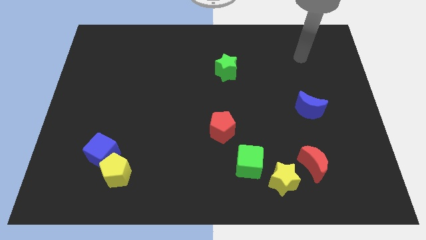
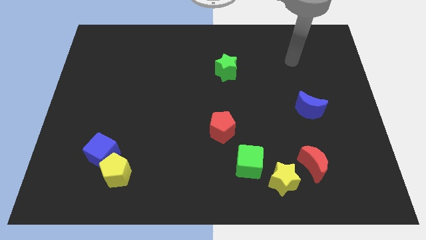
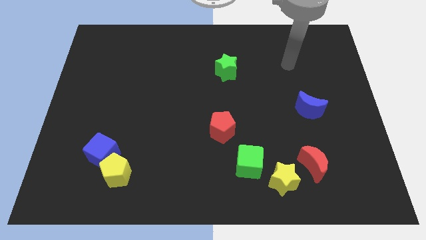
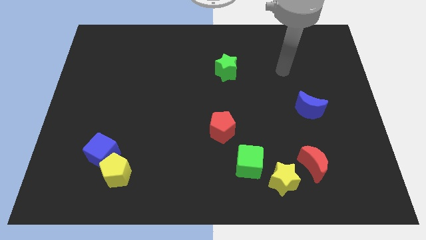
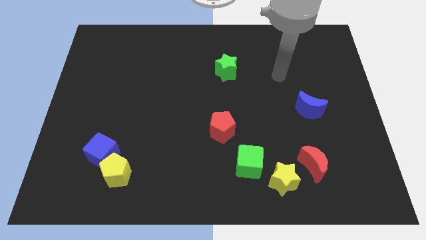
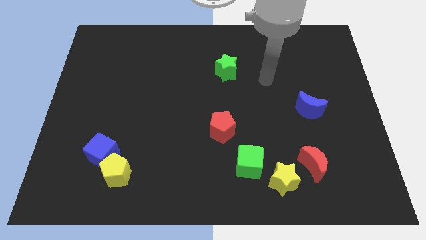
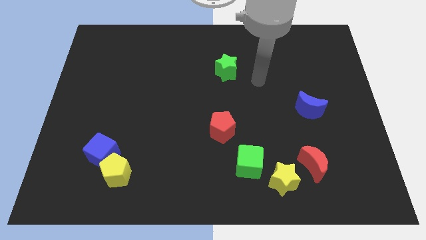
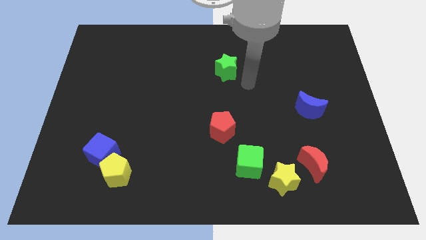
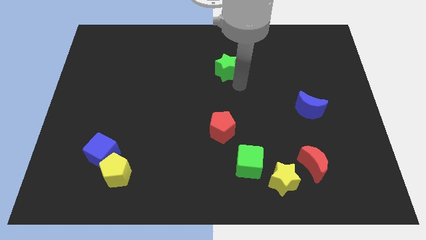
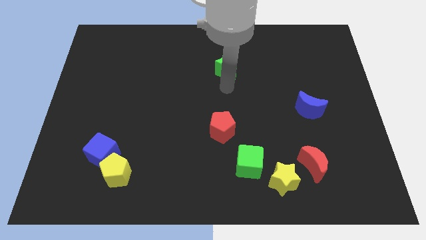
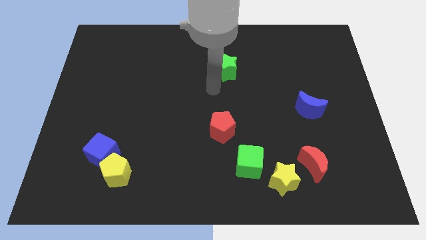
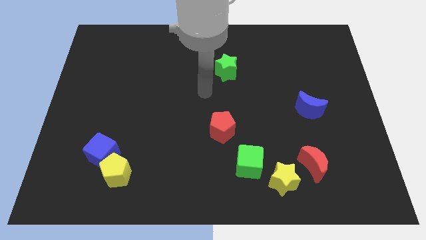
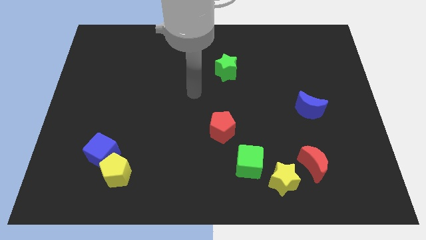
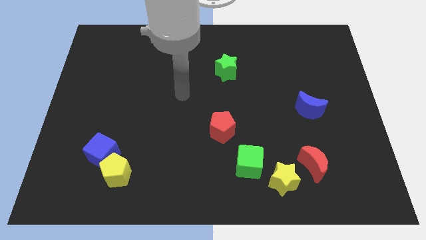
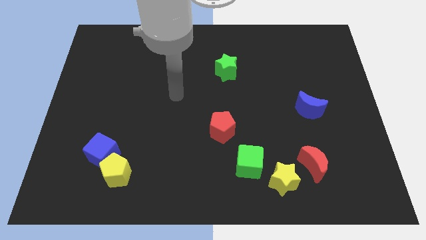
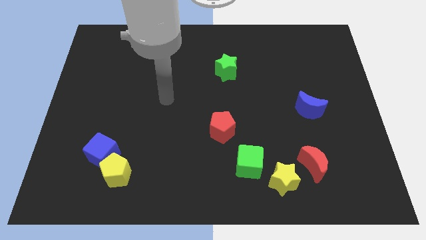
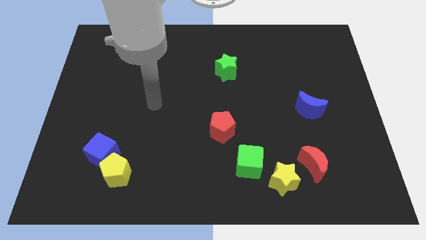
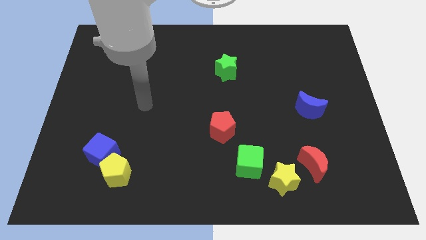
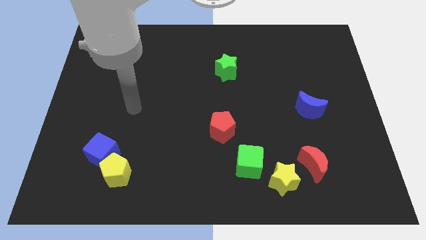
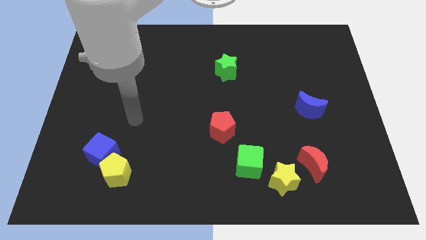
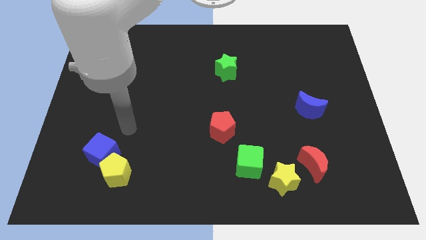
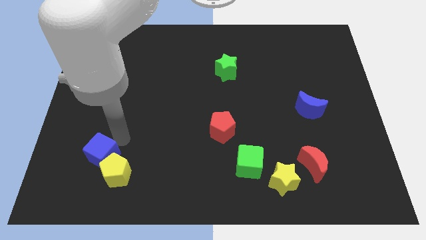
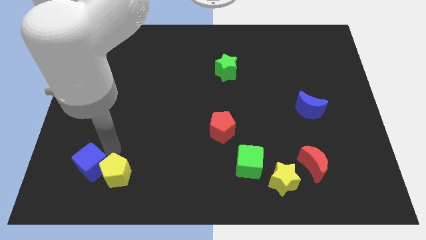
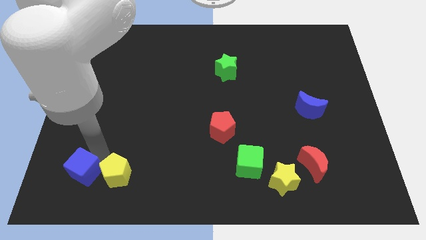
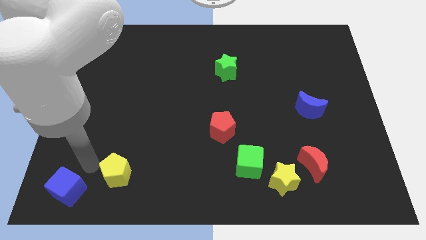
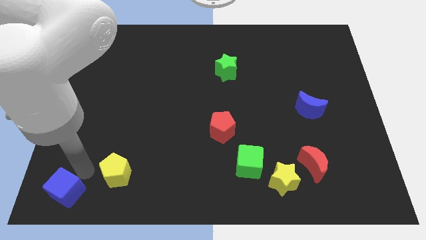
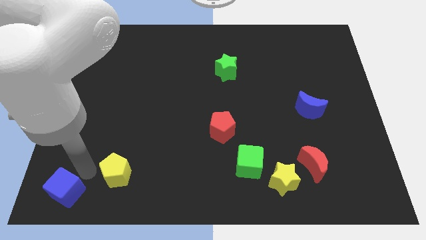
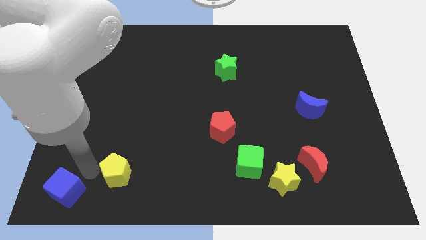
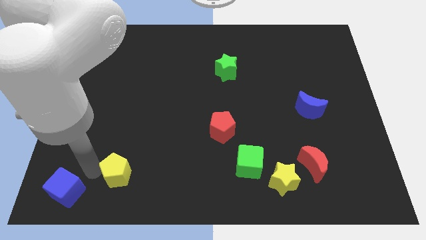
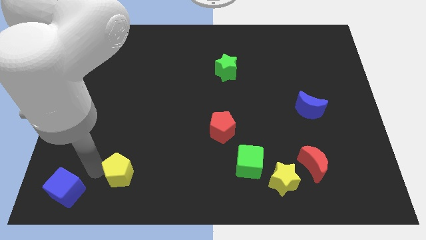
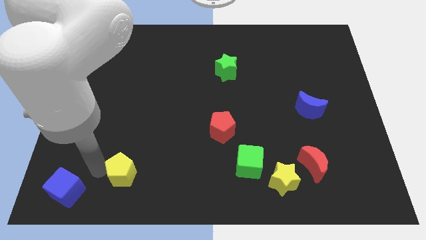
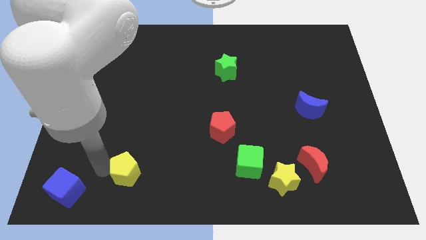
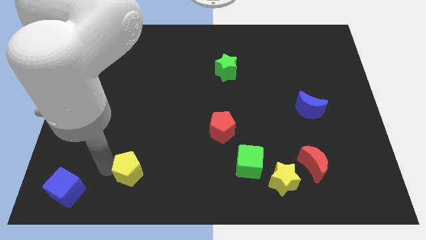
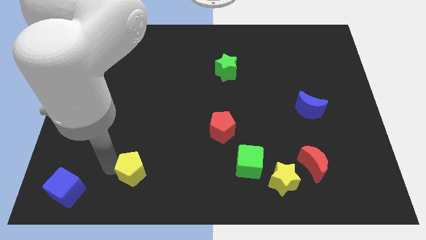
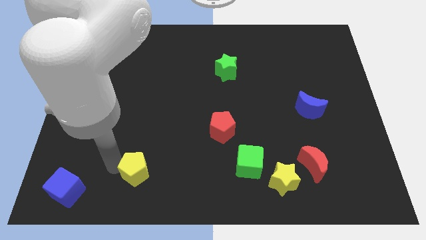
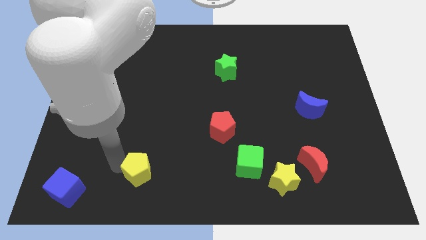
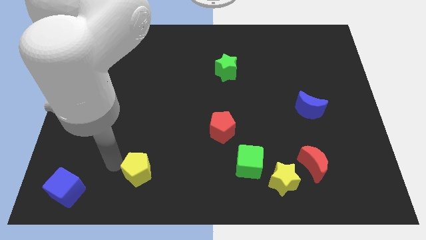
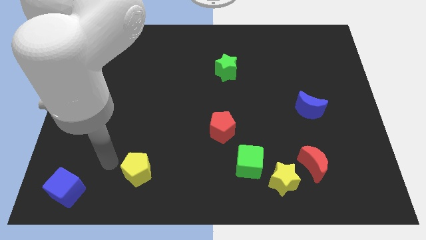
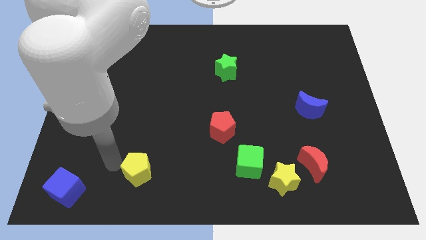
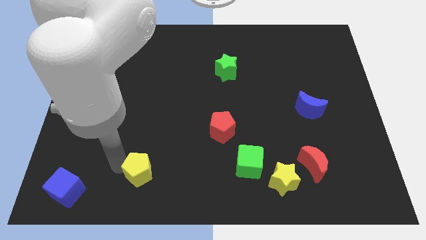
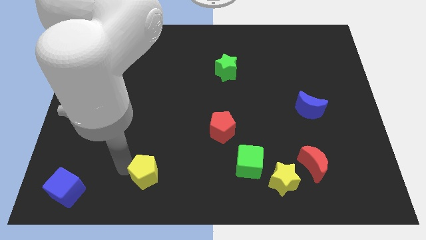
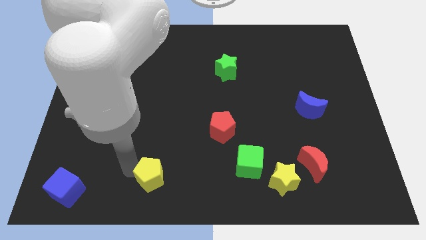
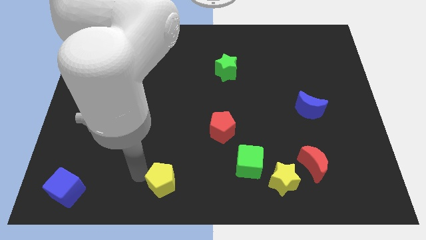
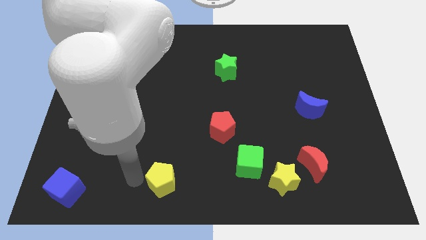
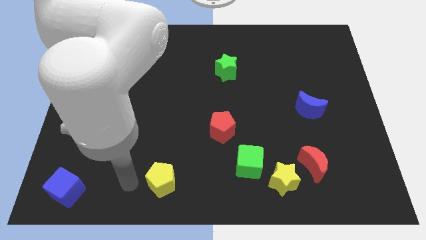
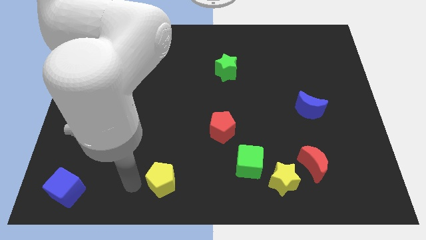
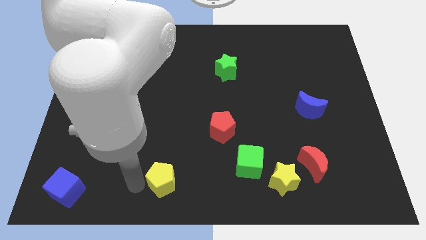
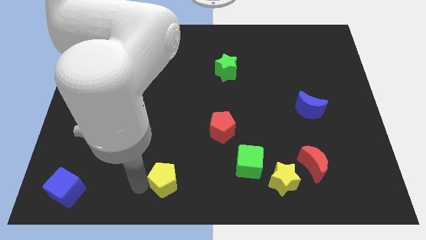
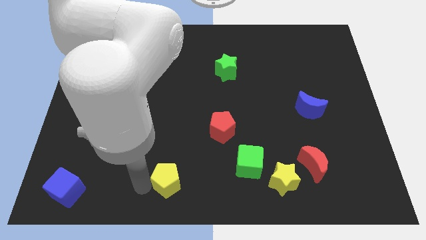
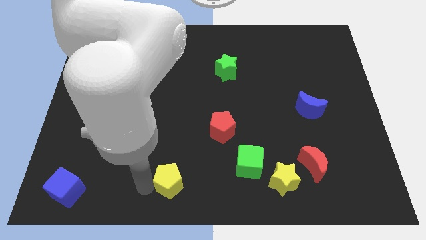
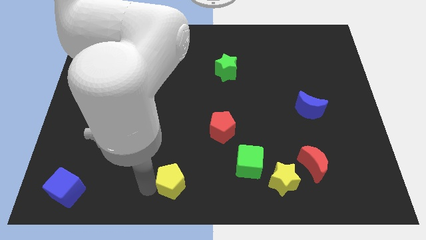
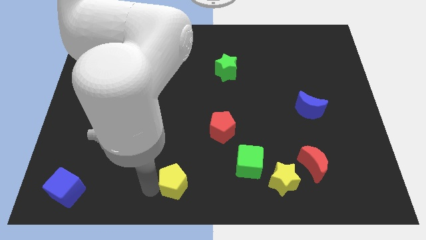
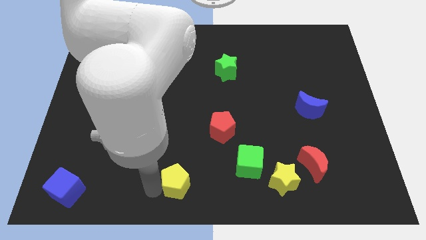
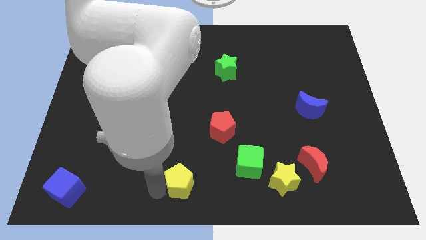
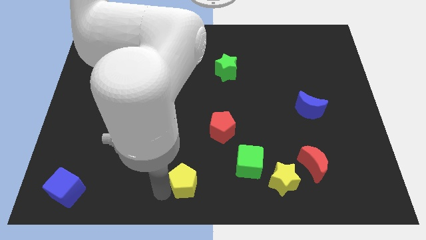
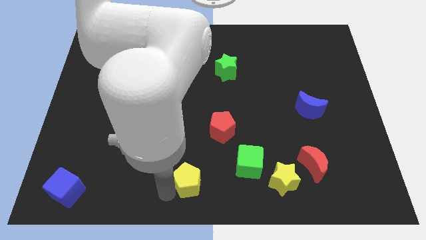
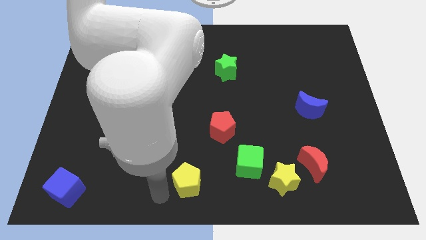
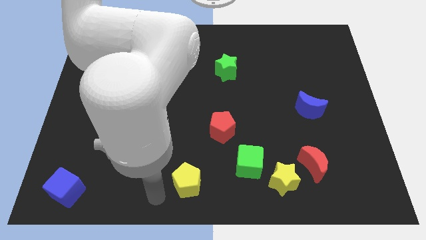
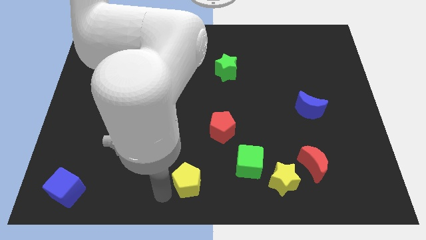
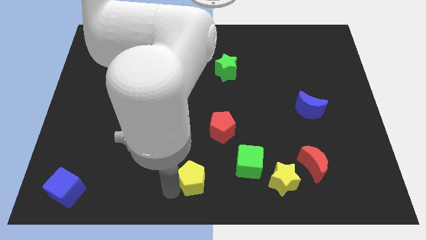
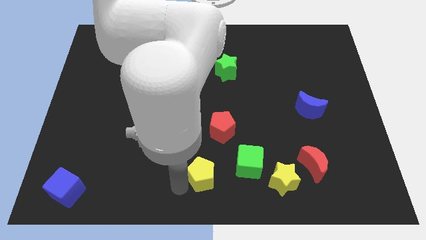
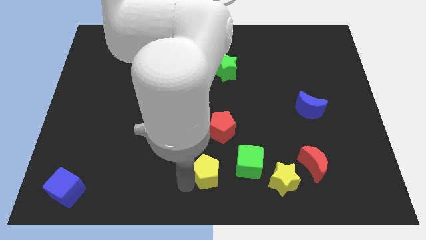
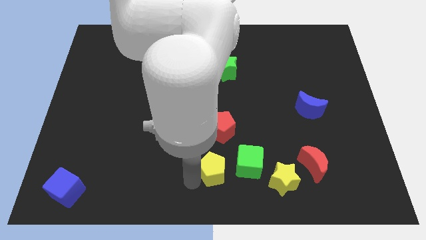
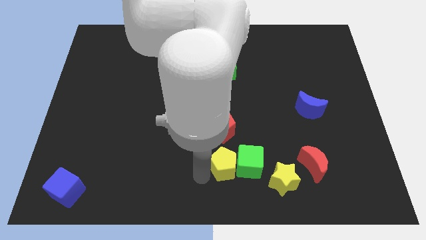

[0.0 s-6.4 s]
push the yellow pentagon to the green cube
